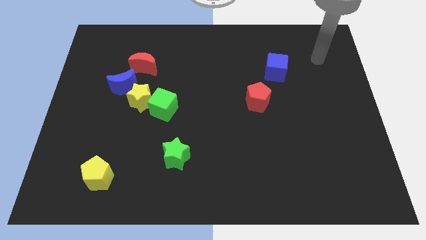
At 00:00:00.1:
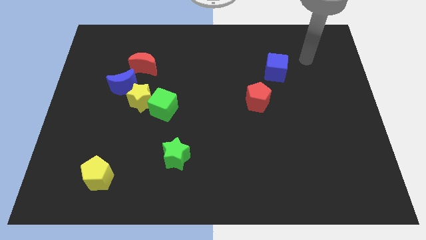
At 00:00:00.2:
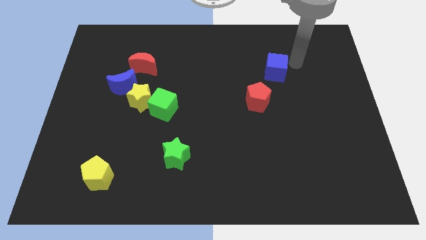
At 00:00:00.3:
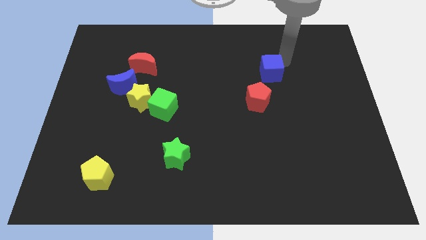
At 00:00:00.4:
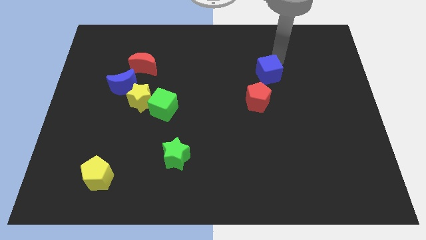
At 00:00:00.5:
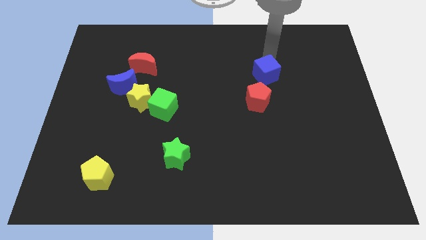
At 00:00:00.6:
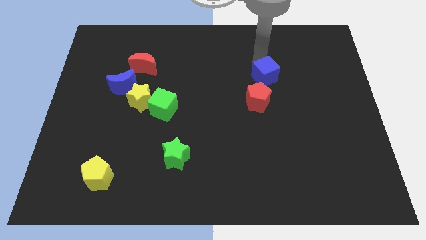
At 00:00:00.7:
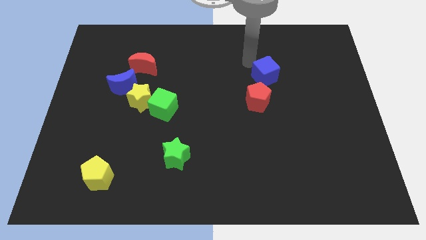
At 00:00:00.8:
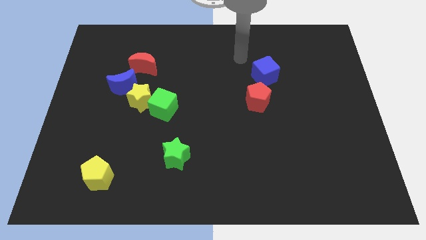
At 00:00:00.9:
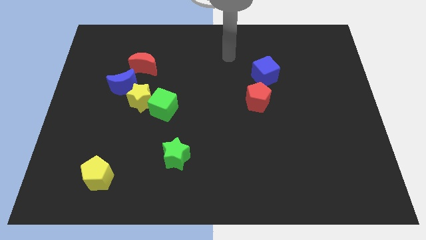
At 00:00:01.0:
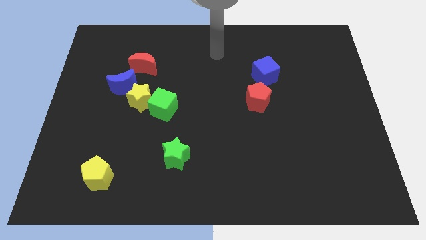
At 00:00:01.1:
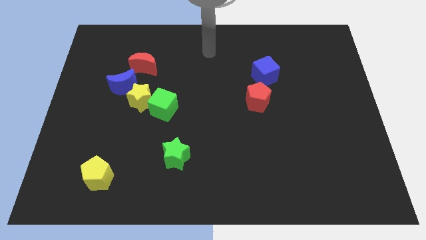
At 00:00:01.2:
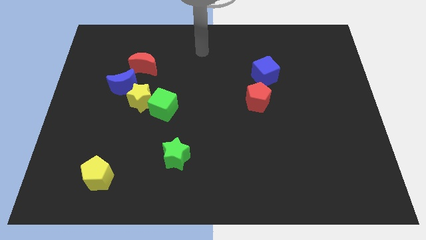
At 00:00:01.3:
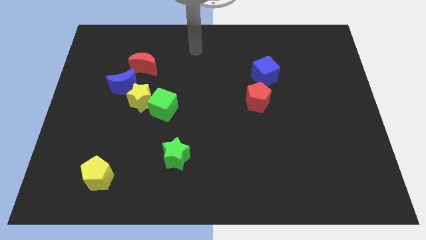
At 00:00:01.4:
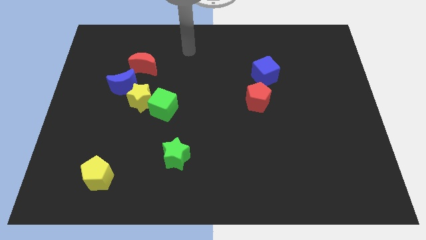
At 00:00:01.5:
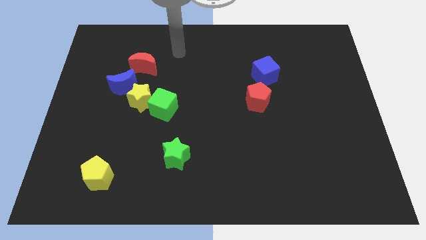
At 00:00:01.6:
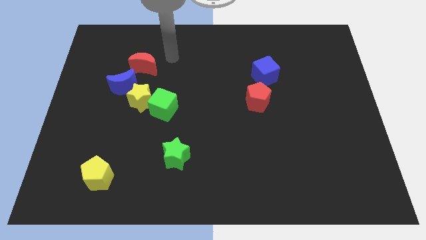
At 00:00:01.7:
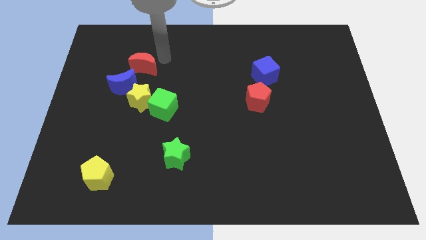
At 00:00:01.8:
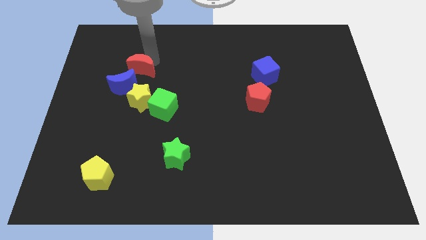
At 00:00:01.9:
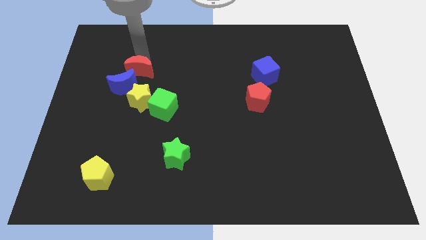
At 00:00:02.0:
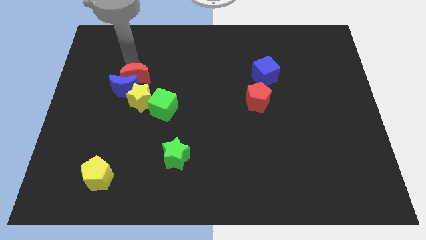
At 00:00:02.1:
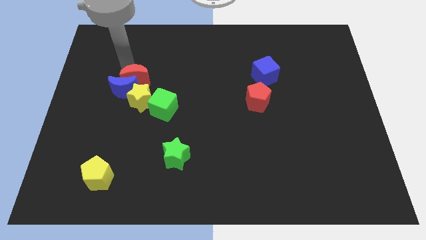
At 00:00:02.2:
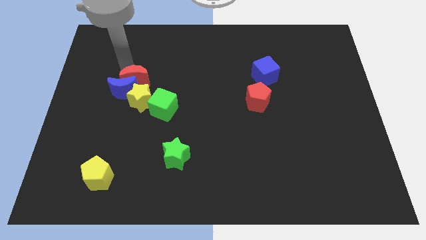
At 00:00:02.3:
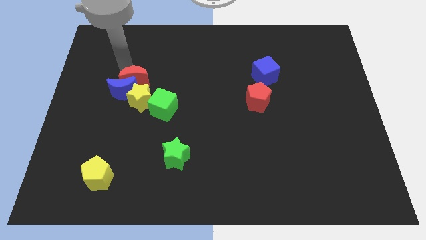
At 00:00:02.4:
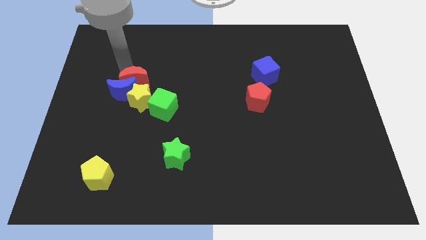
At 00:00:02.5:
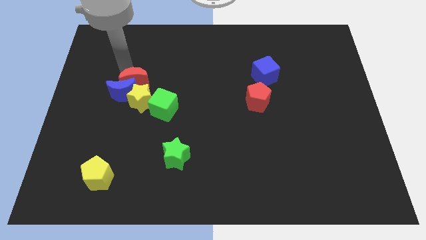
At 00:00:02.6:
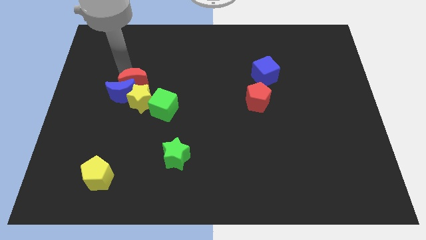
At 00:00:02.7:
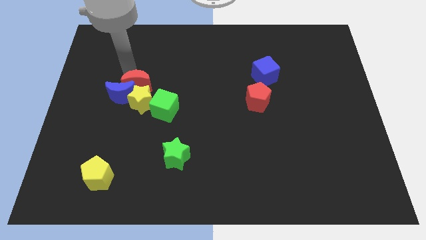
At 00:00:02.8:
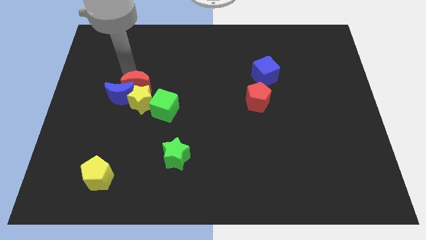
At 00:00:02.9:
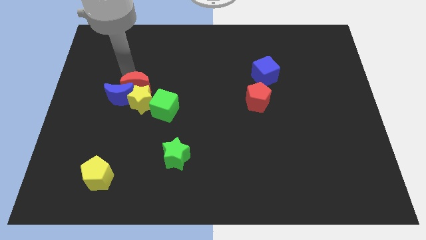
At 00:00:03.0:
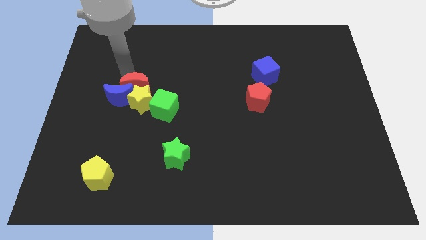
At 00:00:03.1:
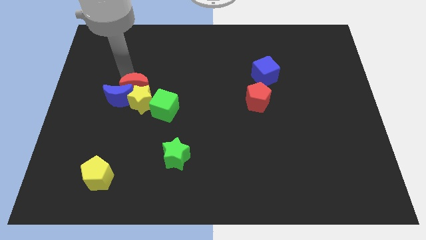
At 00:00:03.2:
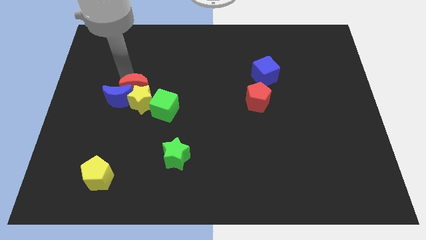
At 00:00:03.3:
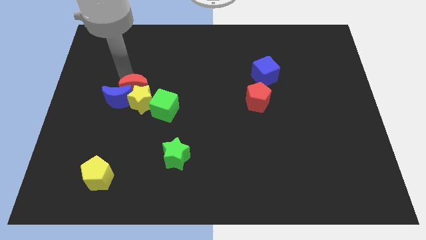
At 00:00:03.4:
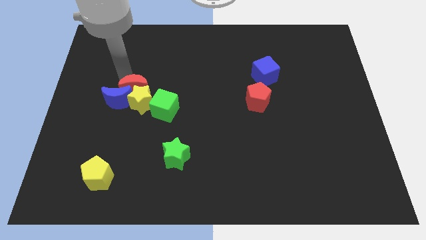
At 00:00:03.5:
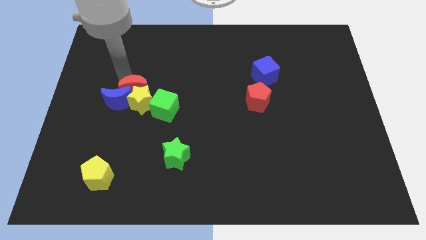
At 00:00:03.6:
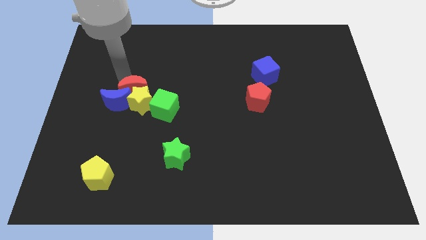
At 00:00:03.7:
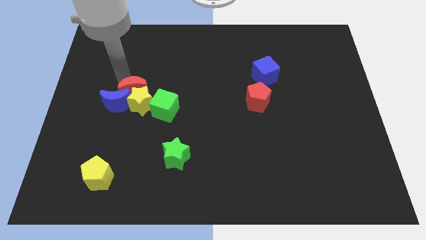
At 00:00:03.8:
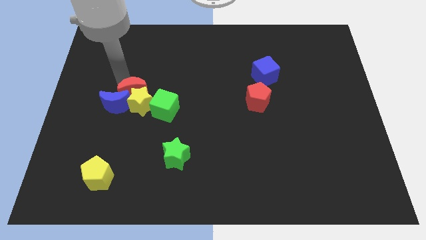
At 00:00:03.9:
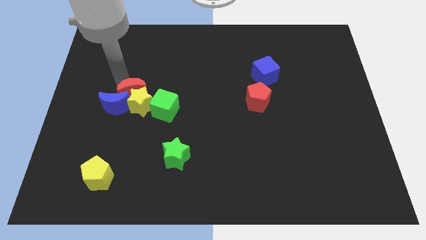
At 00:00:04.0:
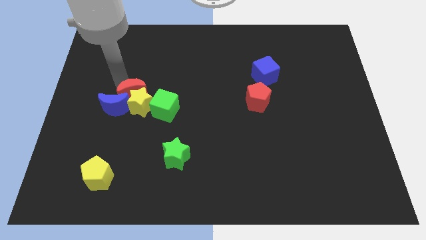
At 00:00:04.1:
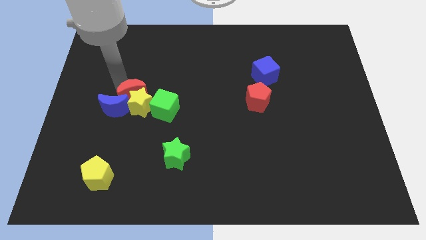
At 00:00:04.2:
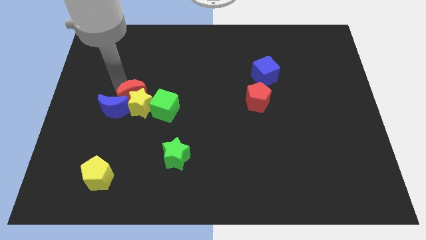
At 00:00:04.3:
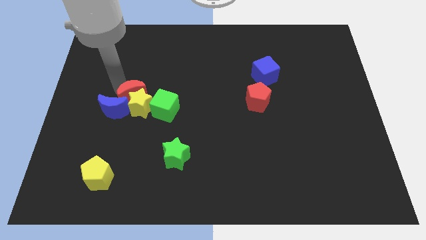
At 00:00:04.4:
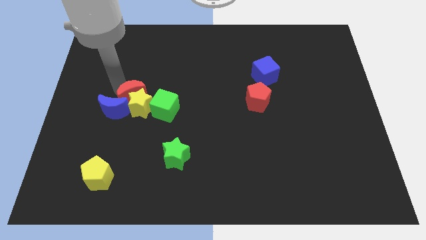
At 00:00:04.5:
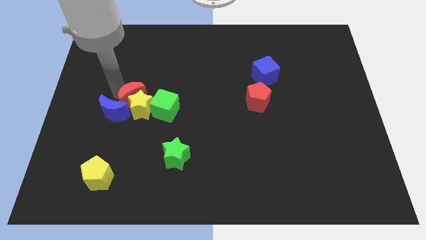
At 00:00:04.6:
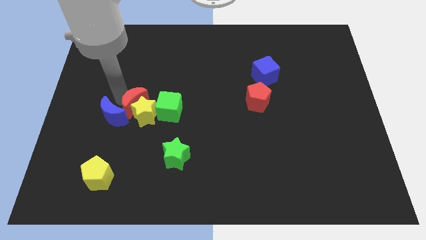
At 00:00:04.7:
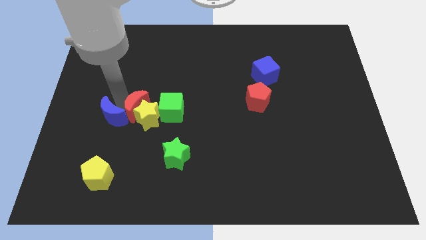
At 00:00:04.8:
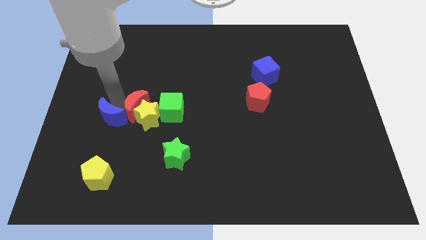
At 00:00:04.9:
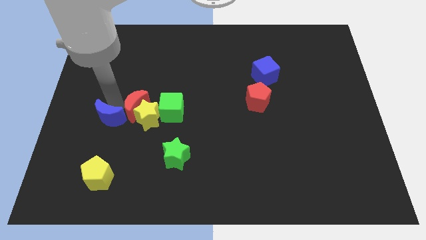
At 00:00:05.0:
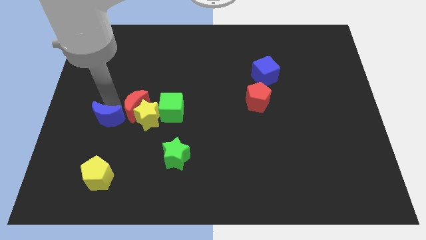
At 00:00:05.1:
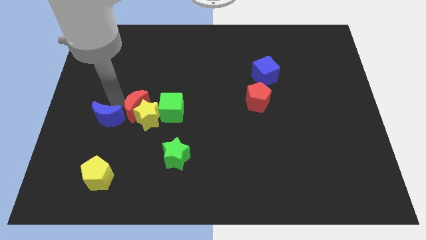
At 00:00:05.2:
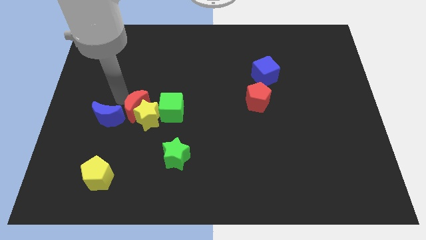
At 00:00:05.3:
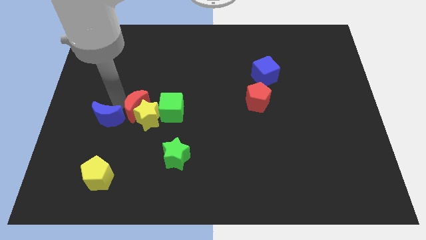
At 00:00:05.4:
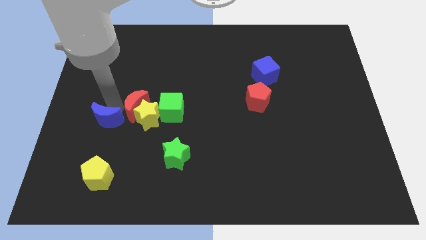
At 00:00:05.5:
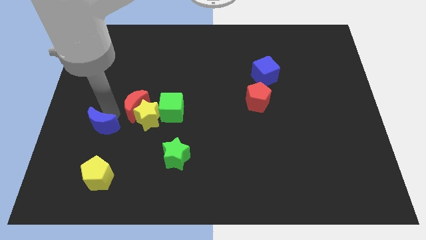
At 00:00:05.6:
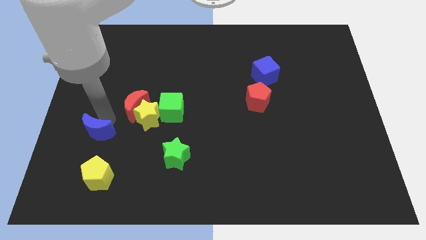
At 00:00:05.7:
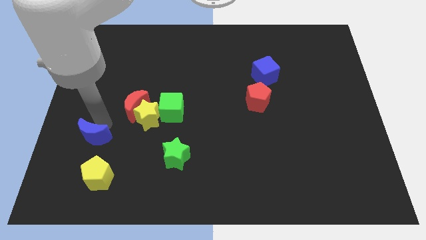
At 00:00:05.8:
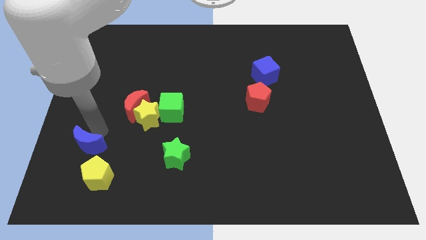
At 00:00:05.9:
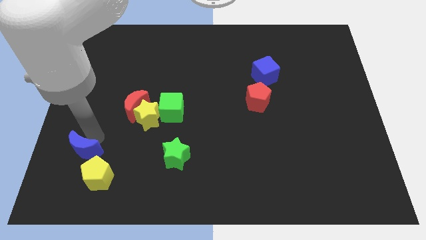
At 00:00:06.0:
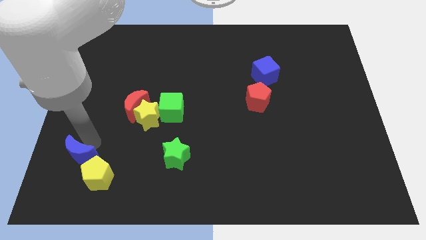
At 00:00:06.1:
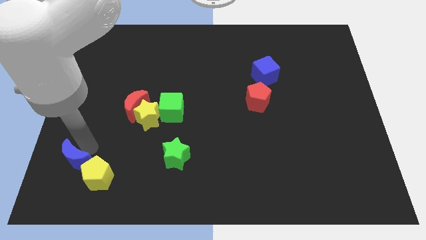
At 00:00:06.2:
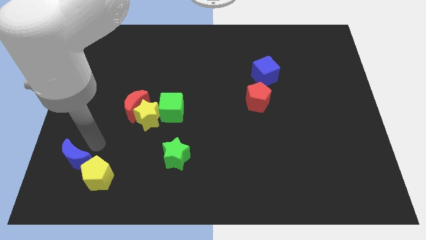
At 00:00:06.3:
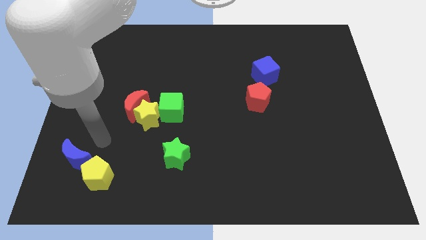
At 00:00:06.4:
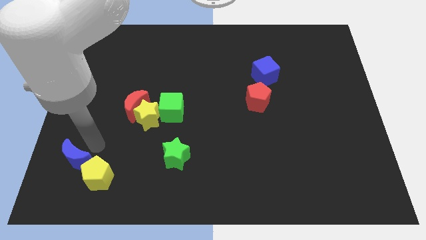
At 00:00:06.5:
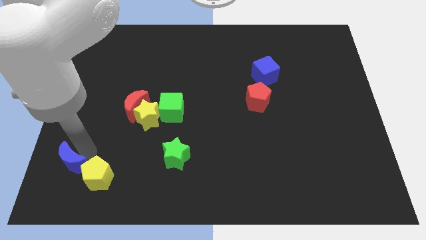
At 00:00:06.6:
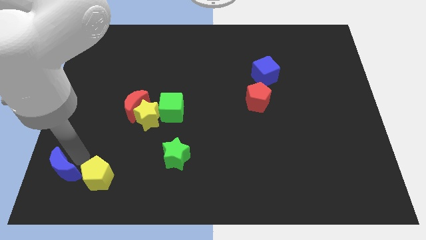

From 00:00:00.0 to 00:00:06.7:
push the blue moon to the bottom left
